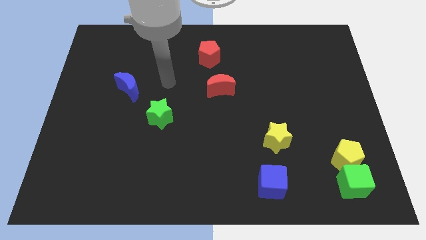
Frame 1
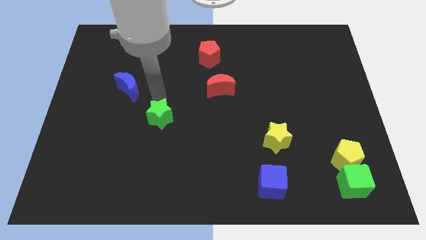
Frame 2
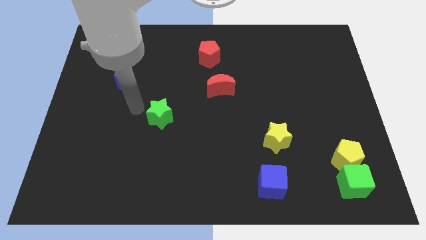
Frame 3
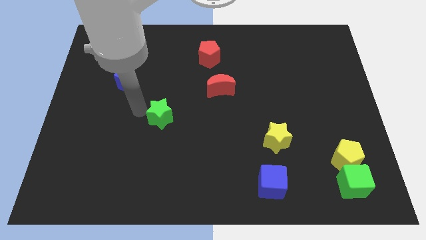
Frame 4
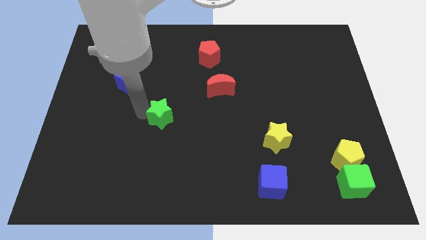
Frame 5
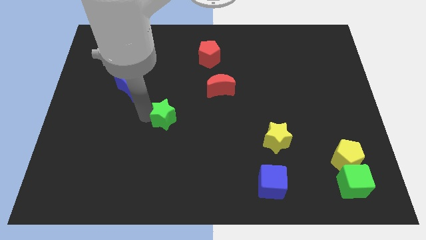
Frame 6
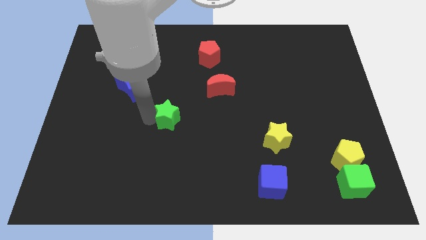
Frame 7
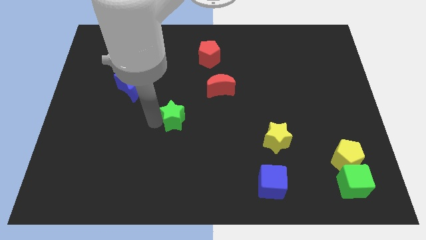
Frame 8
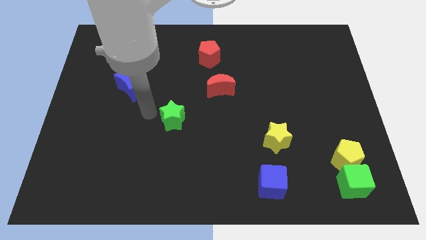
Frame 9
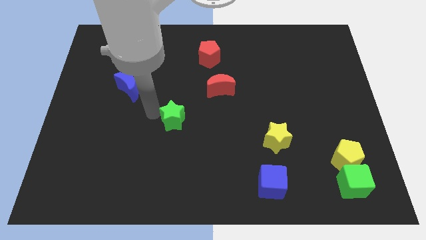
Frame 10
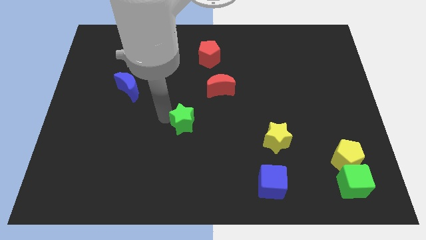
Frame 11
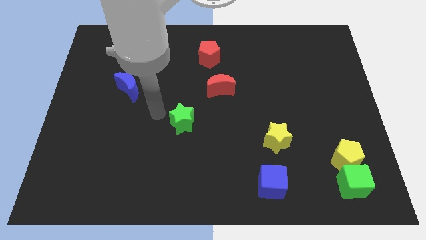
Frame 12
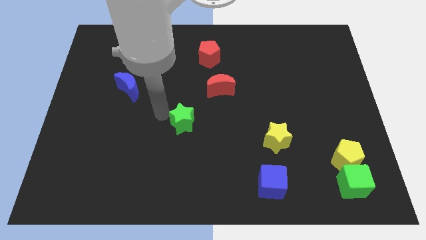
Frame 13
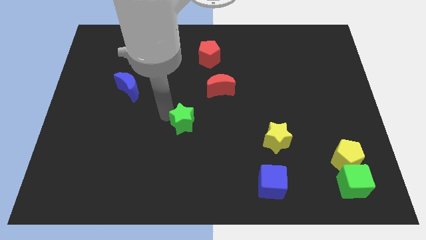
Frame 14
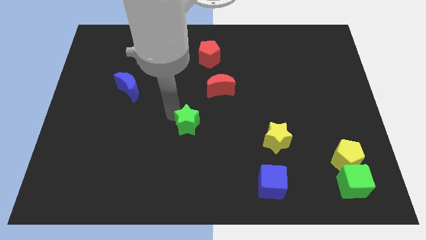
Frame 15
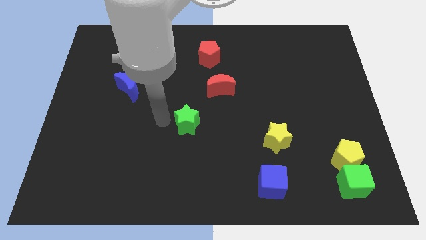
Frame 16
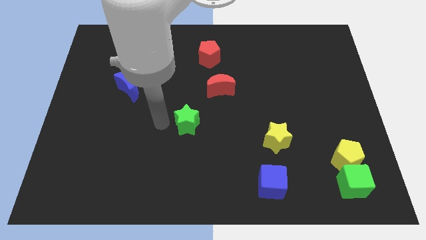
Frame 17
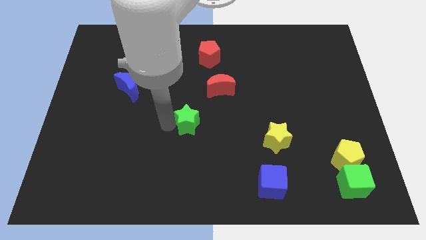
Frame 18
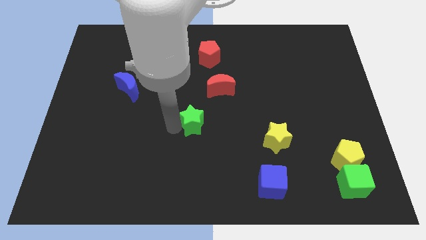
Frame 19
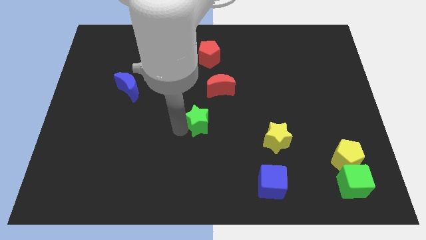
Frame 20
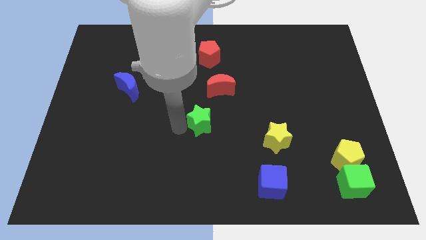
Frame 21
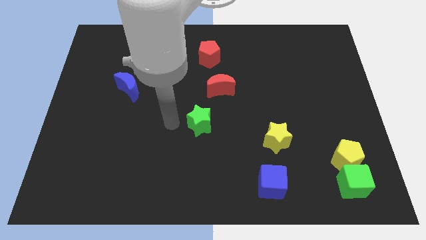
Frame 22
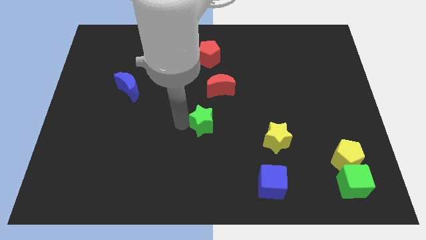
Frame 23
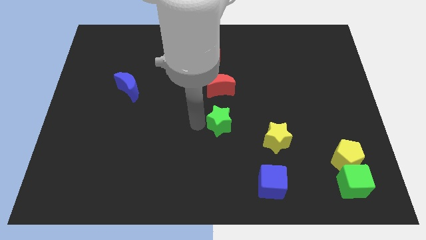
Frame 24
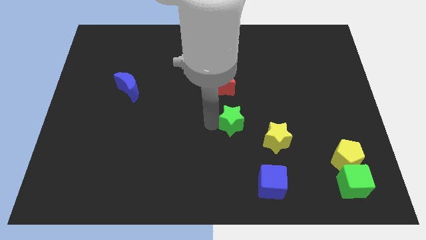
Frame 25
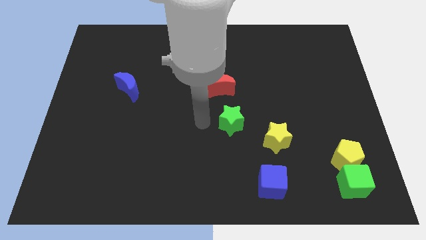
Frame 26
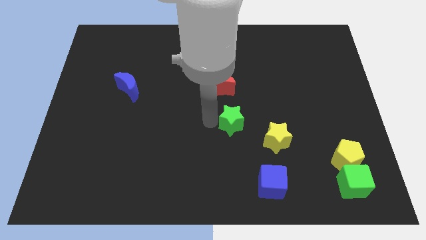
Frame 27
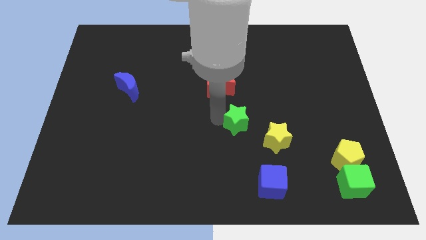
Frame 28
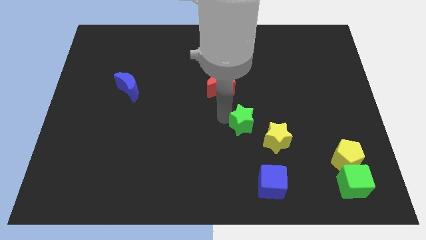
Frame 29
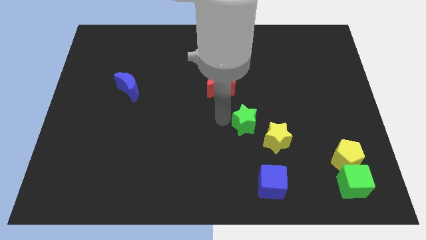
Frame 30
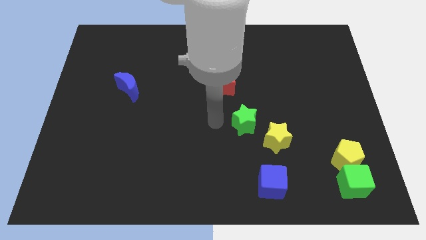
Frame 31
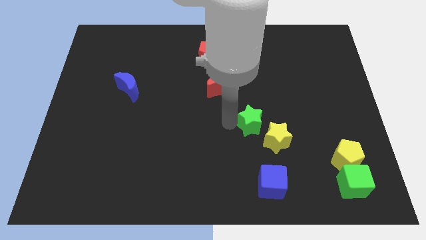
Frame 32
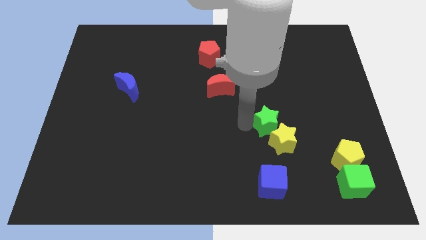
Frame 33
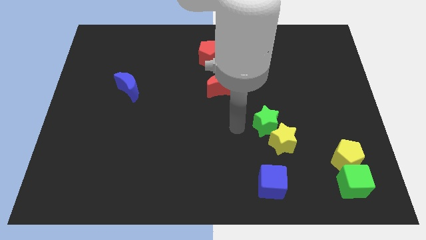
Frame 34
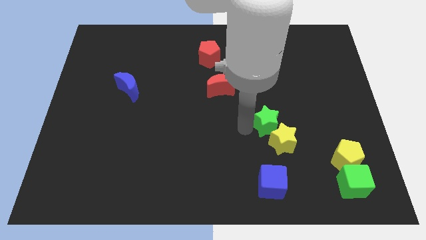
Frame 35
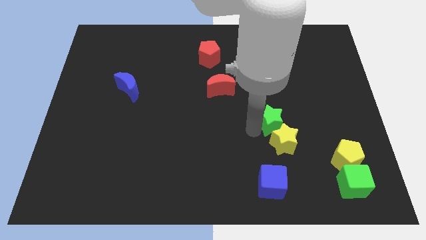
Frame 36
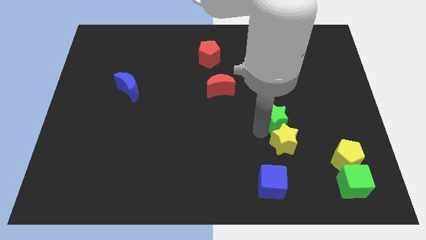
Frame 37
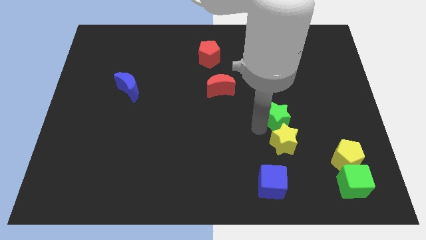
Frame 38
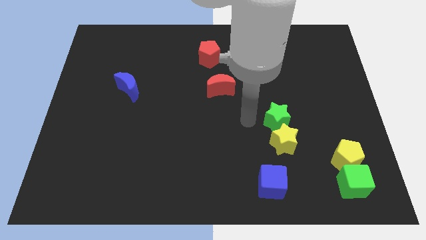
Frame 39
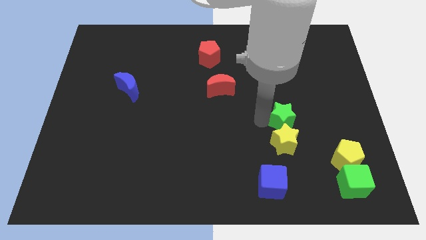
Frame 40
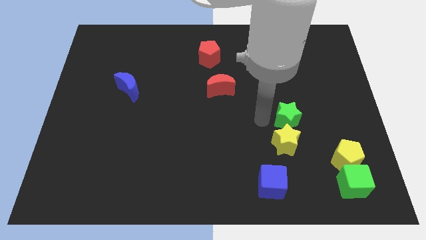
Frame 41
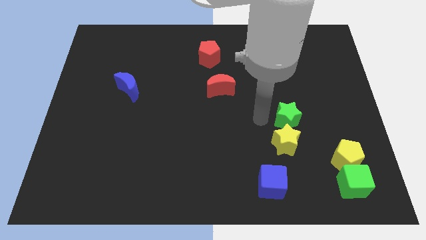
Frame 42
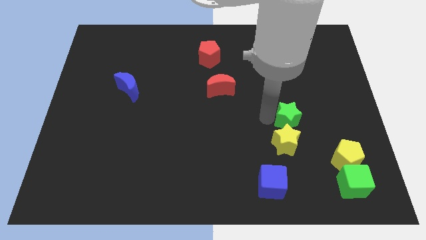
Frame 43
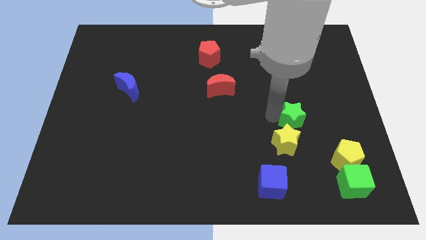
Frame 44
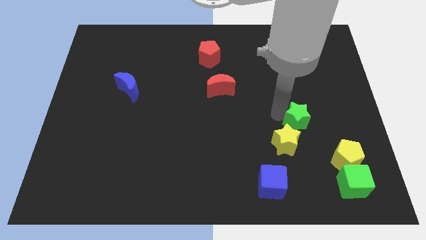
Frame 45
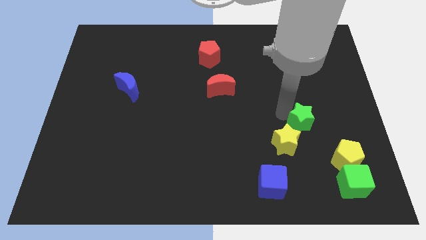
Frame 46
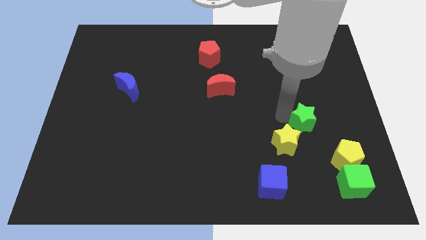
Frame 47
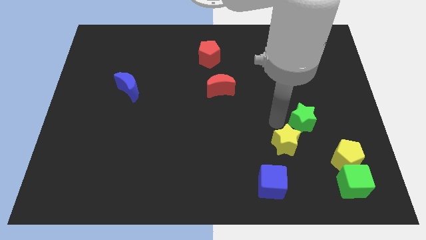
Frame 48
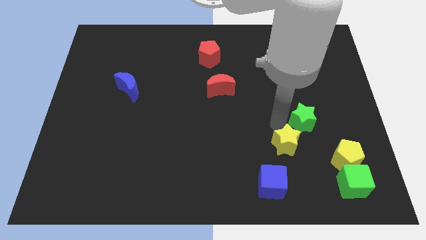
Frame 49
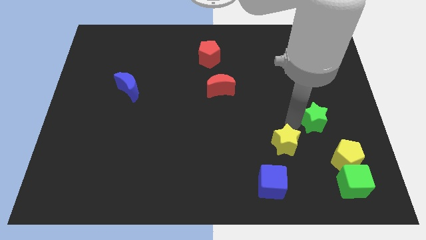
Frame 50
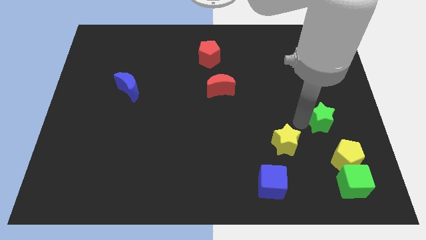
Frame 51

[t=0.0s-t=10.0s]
slide the green star above the yellow pentagon
